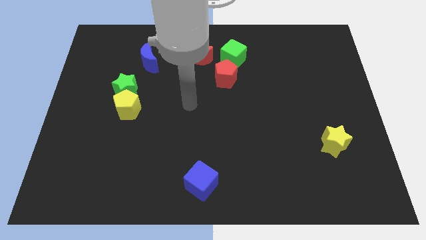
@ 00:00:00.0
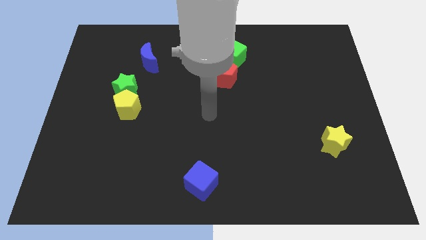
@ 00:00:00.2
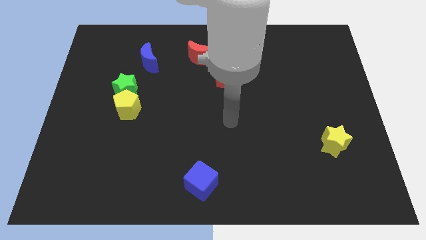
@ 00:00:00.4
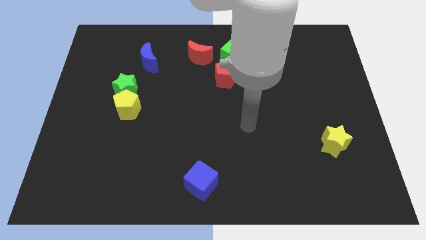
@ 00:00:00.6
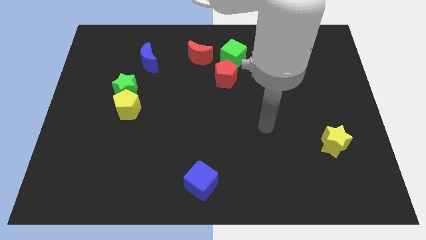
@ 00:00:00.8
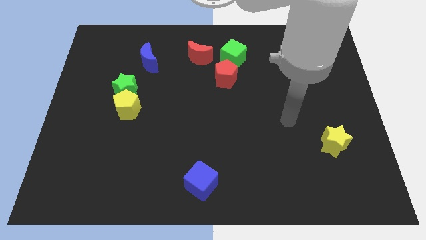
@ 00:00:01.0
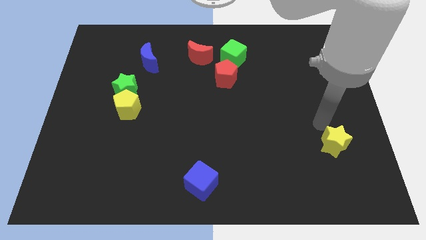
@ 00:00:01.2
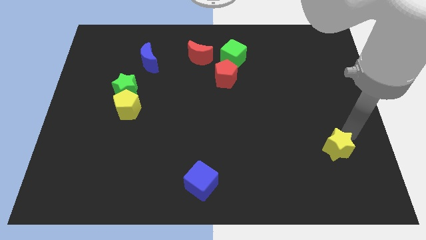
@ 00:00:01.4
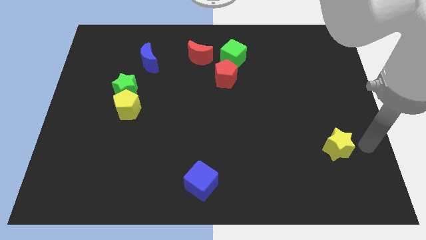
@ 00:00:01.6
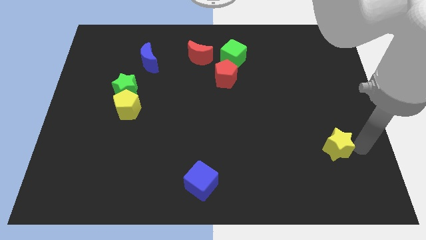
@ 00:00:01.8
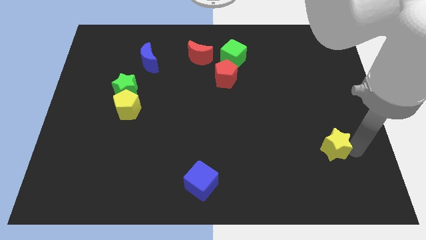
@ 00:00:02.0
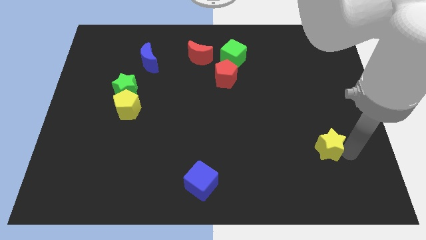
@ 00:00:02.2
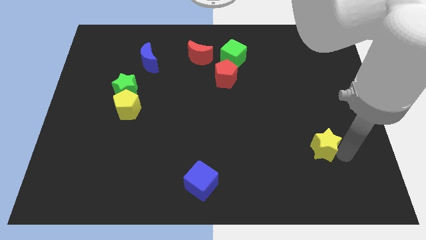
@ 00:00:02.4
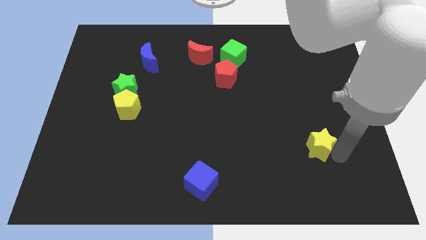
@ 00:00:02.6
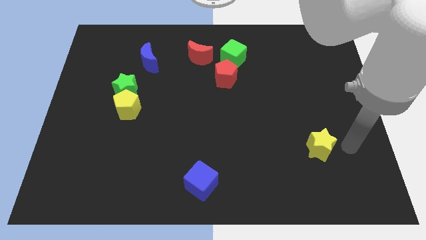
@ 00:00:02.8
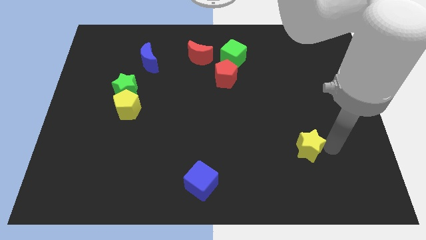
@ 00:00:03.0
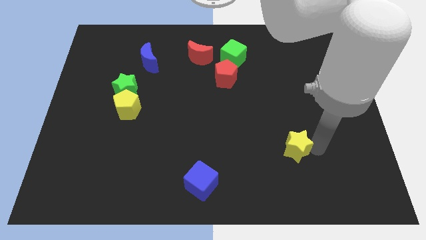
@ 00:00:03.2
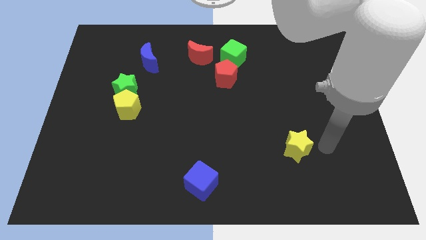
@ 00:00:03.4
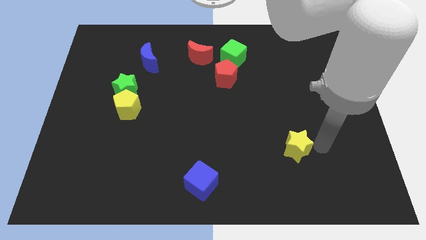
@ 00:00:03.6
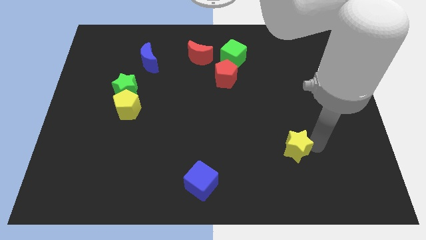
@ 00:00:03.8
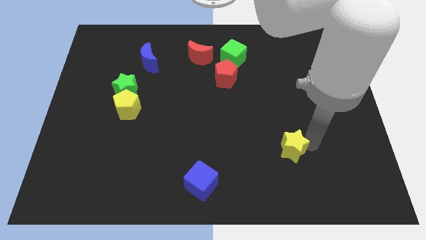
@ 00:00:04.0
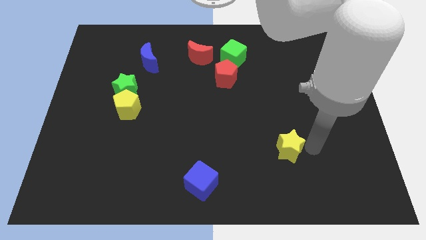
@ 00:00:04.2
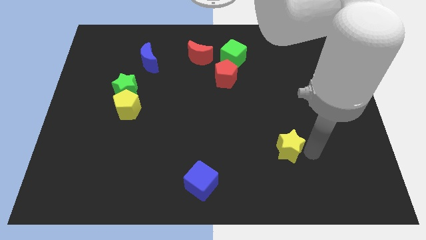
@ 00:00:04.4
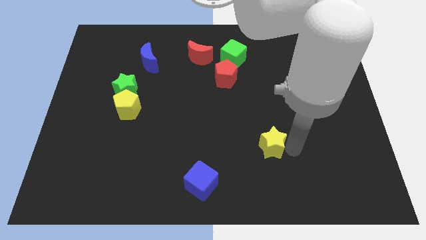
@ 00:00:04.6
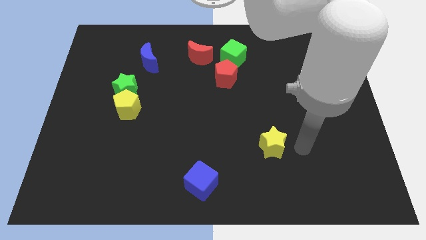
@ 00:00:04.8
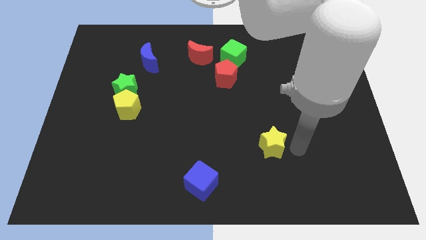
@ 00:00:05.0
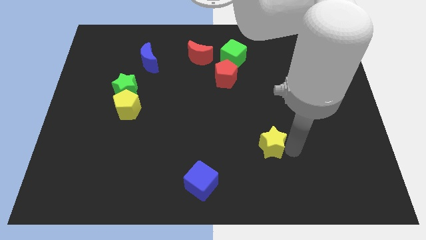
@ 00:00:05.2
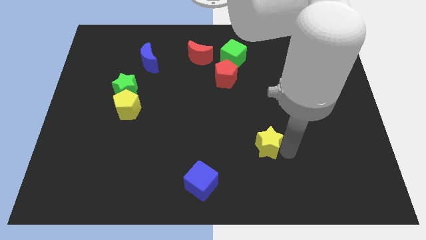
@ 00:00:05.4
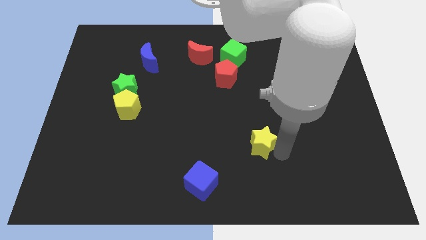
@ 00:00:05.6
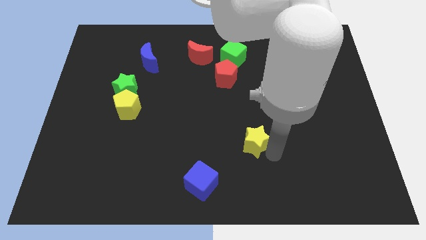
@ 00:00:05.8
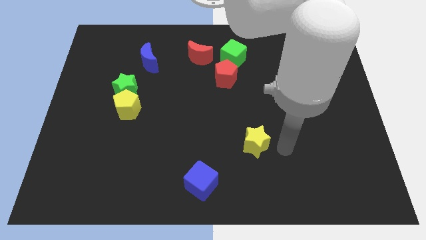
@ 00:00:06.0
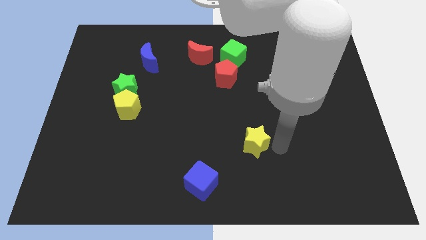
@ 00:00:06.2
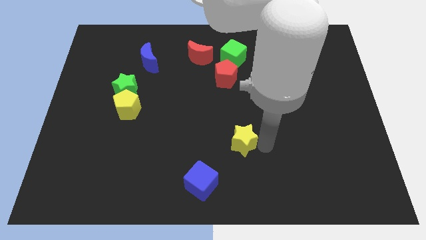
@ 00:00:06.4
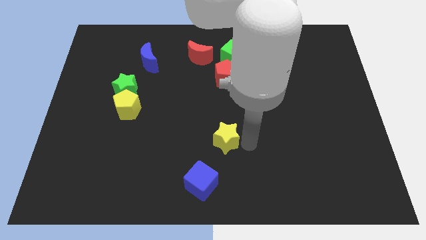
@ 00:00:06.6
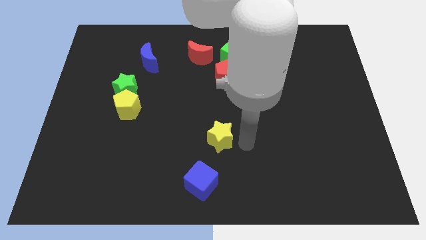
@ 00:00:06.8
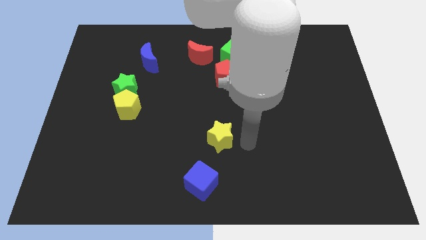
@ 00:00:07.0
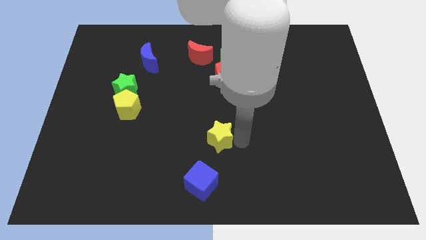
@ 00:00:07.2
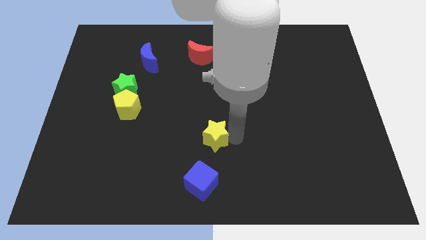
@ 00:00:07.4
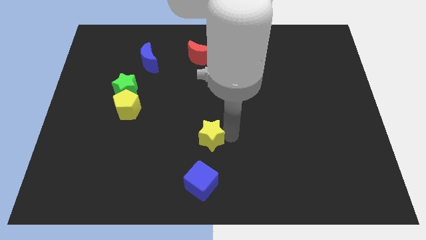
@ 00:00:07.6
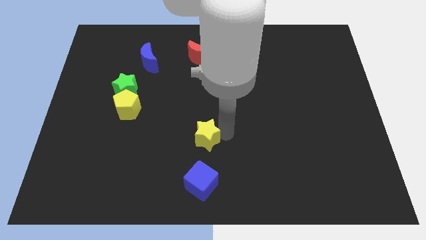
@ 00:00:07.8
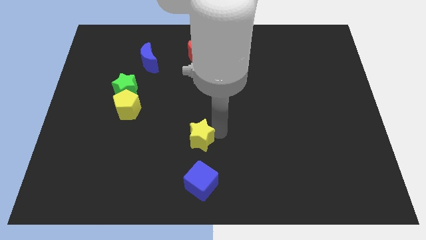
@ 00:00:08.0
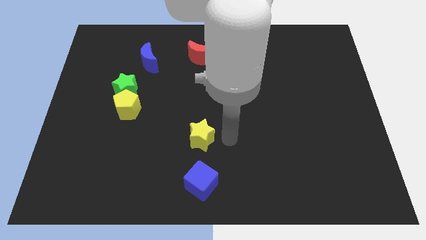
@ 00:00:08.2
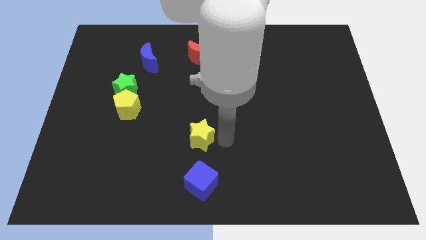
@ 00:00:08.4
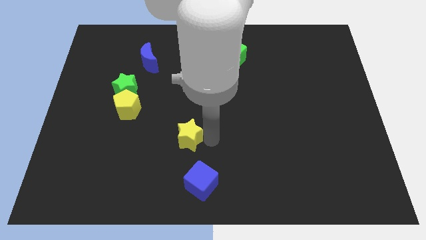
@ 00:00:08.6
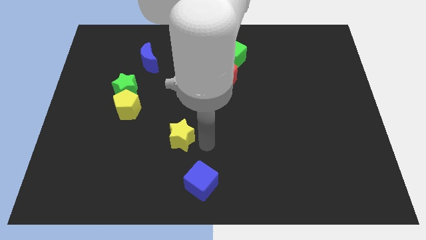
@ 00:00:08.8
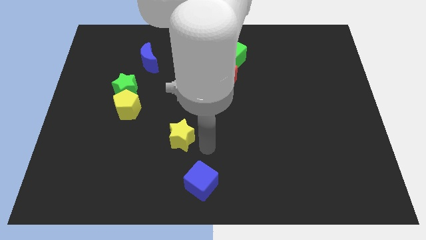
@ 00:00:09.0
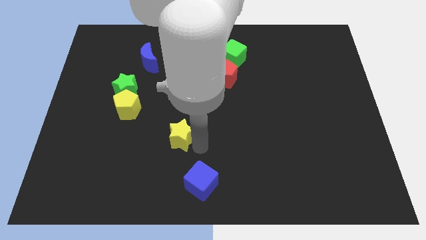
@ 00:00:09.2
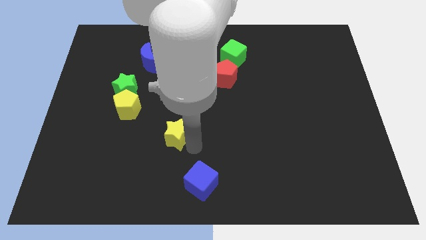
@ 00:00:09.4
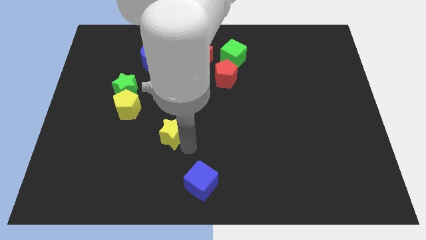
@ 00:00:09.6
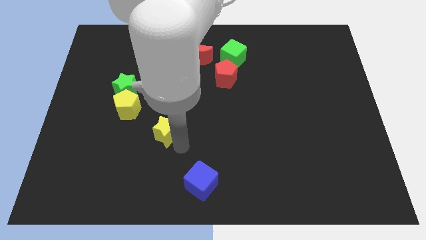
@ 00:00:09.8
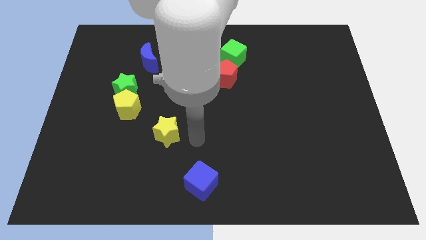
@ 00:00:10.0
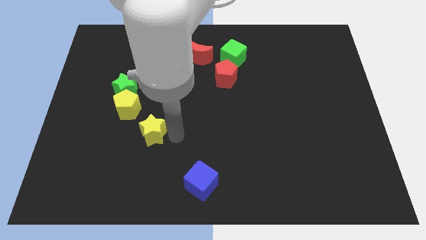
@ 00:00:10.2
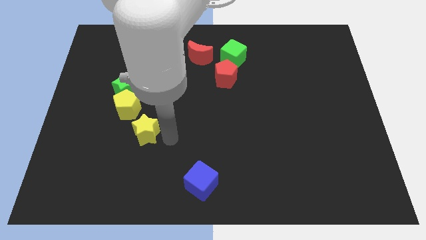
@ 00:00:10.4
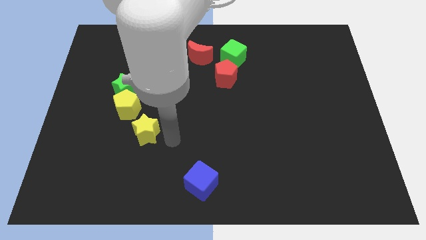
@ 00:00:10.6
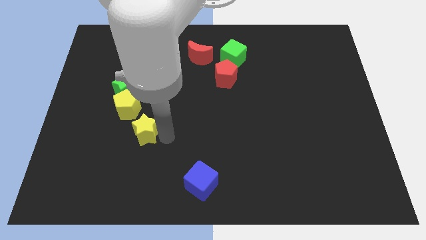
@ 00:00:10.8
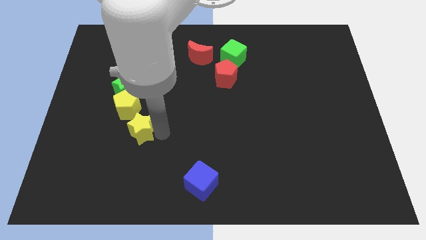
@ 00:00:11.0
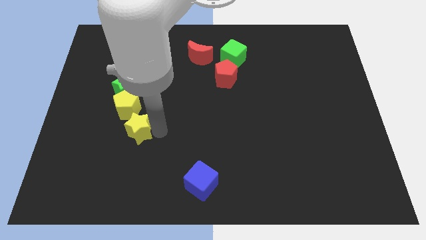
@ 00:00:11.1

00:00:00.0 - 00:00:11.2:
slide the yellow star below the green star

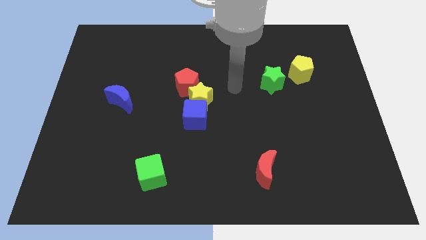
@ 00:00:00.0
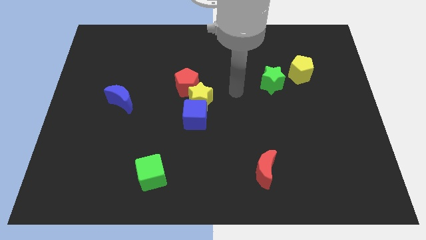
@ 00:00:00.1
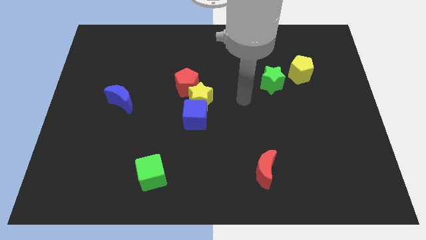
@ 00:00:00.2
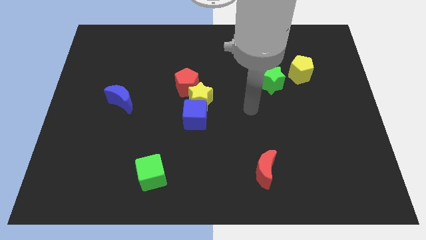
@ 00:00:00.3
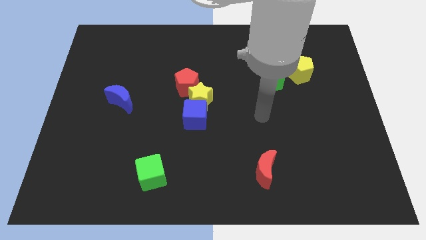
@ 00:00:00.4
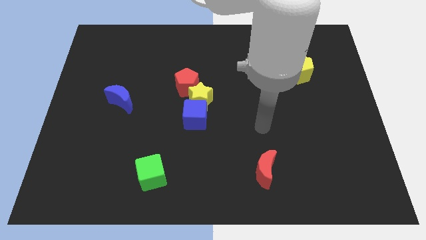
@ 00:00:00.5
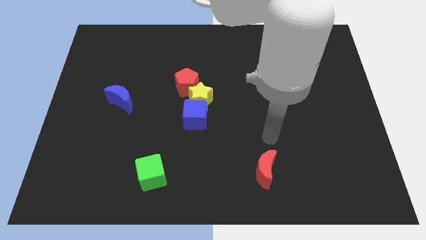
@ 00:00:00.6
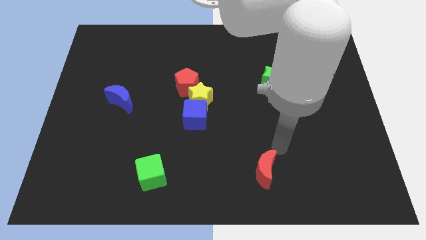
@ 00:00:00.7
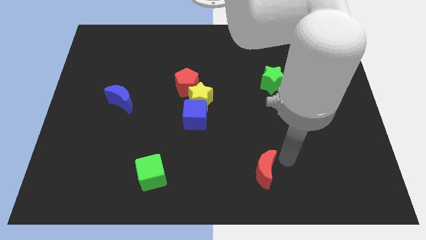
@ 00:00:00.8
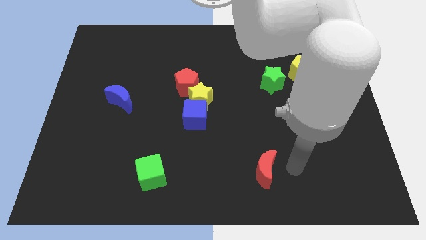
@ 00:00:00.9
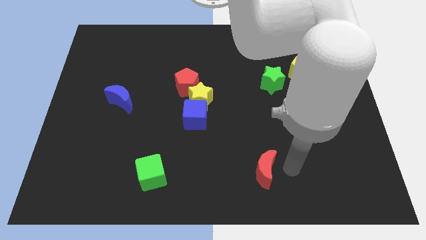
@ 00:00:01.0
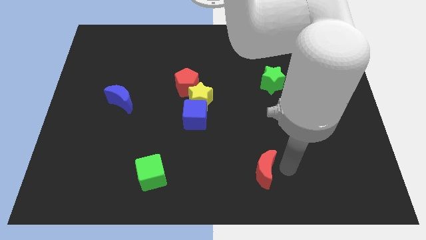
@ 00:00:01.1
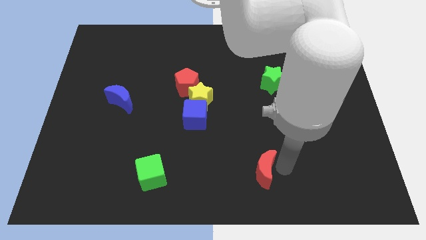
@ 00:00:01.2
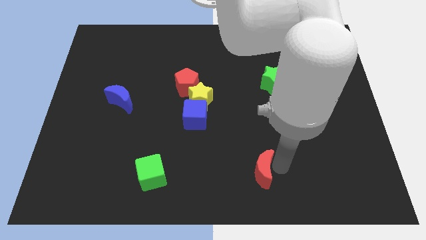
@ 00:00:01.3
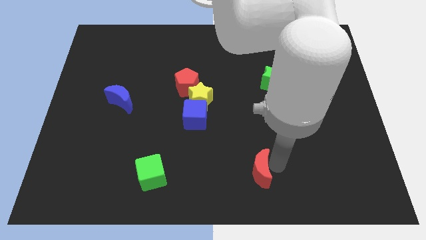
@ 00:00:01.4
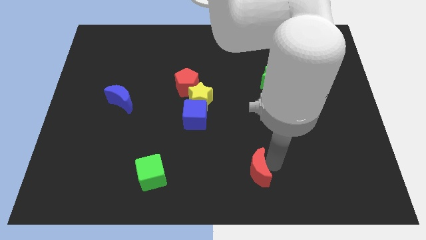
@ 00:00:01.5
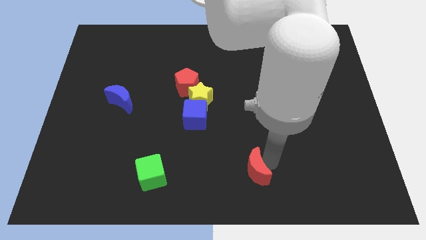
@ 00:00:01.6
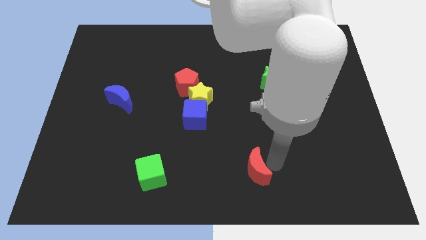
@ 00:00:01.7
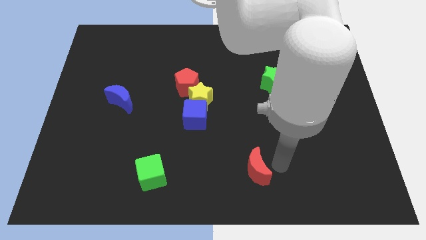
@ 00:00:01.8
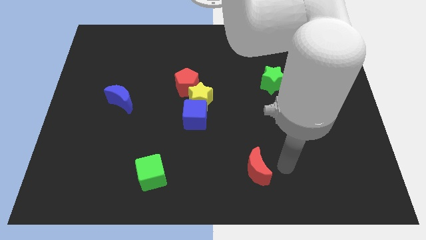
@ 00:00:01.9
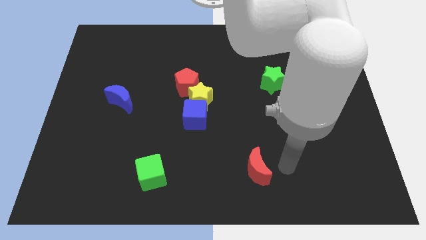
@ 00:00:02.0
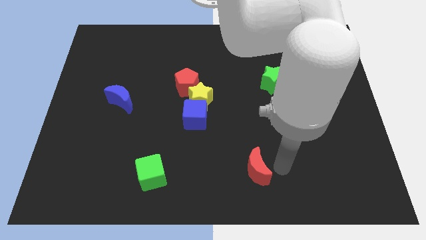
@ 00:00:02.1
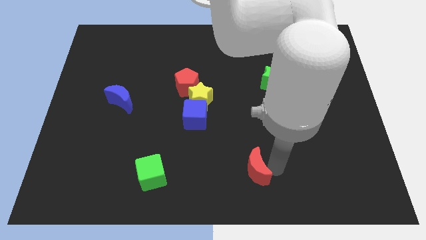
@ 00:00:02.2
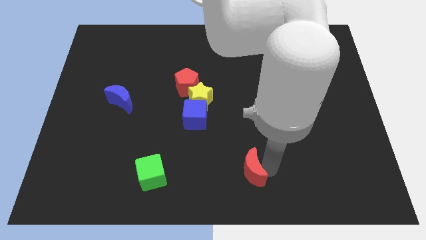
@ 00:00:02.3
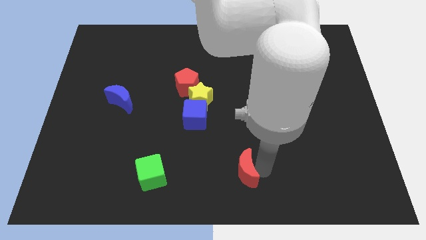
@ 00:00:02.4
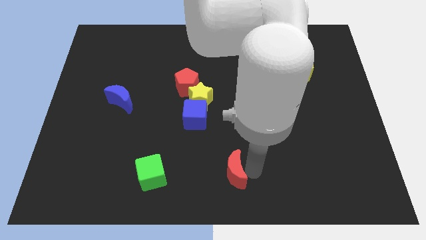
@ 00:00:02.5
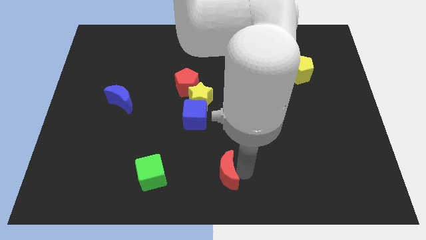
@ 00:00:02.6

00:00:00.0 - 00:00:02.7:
move the red moon just right of the green cube
